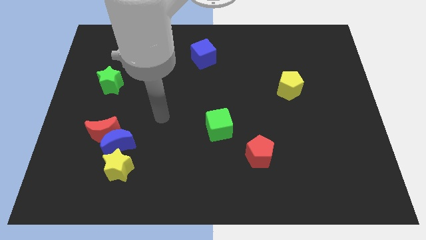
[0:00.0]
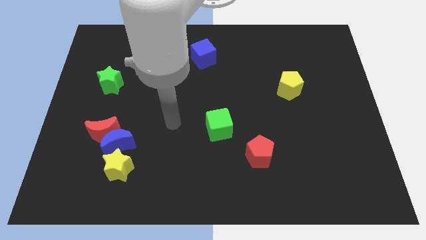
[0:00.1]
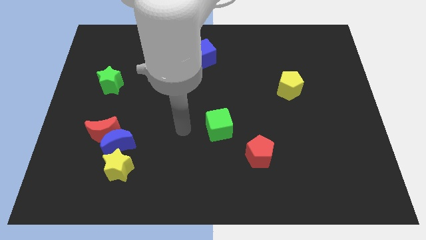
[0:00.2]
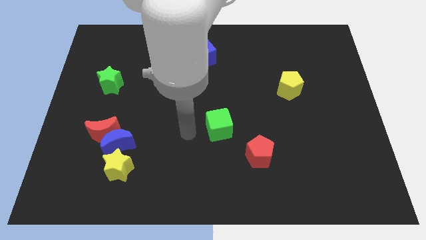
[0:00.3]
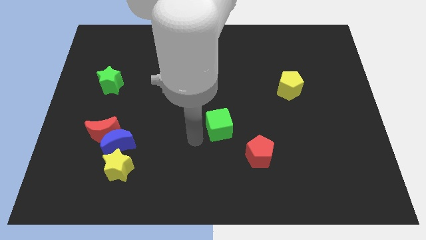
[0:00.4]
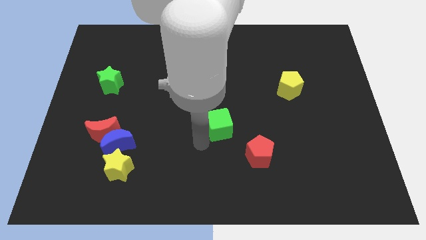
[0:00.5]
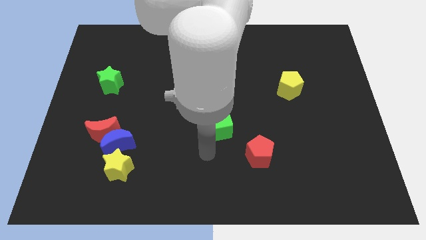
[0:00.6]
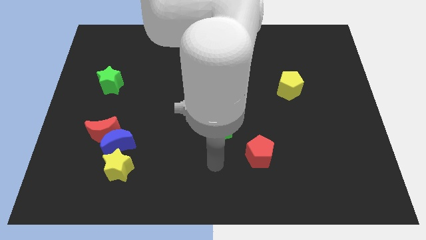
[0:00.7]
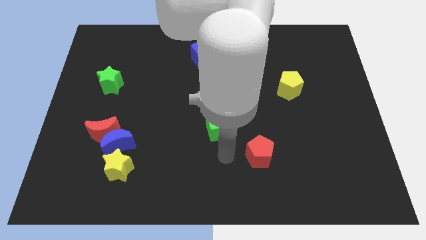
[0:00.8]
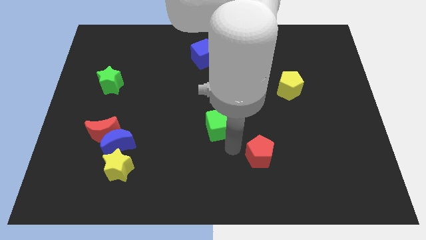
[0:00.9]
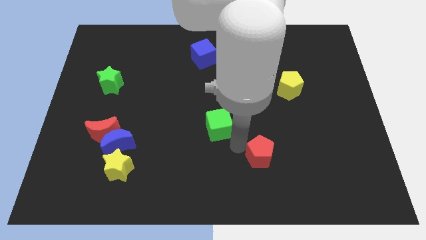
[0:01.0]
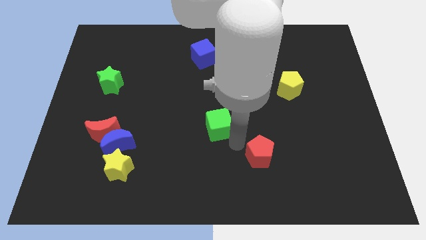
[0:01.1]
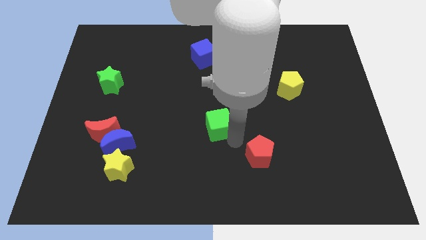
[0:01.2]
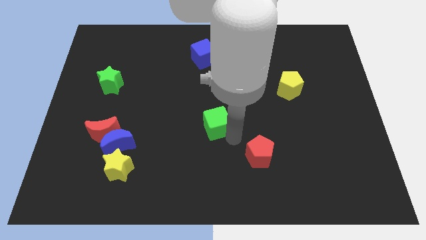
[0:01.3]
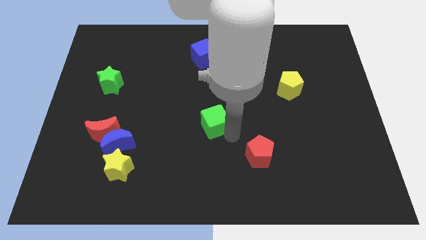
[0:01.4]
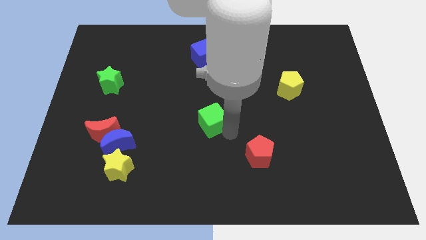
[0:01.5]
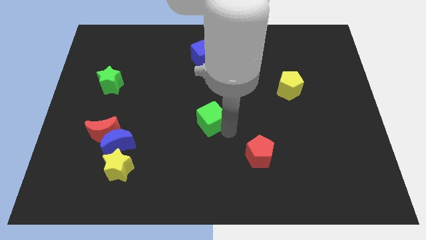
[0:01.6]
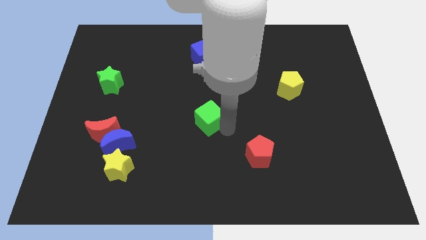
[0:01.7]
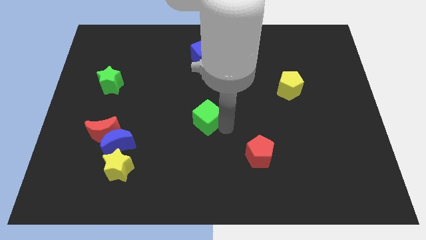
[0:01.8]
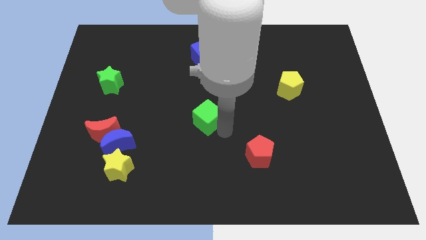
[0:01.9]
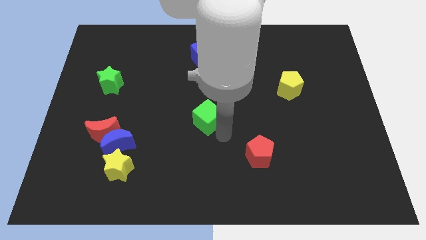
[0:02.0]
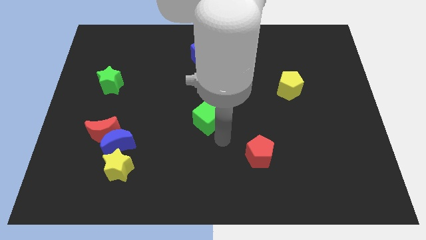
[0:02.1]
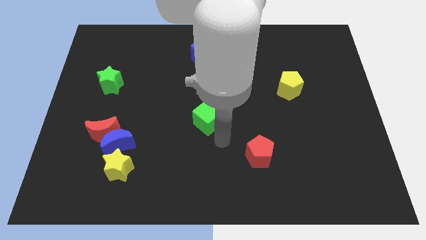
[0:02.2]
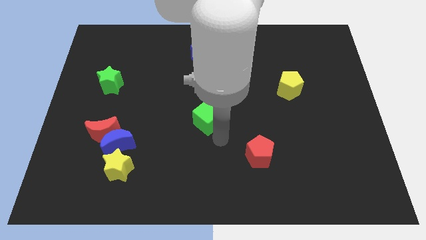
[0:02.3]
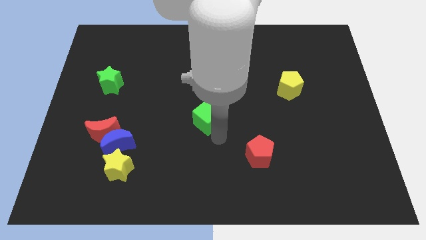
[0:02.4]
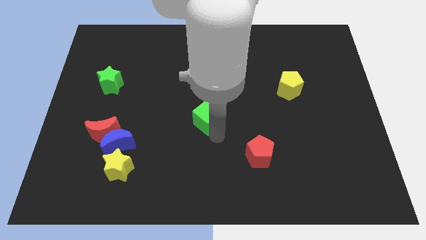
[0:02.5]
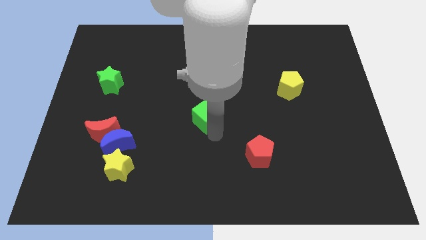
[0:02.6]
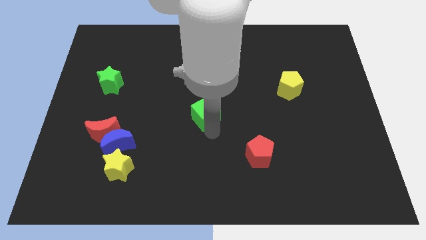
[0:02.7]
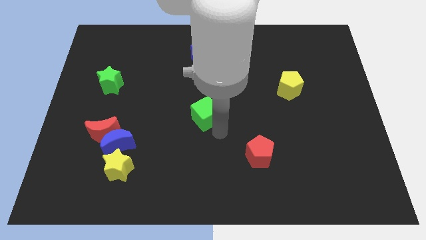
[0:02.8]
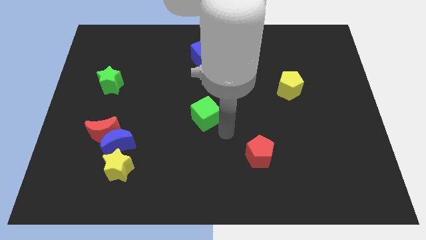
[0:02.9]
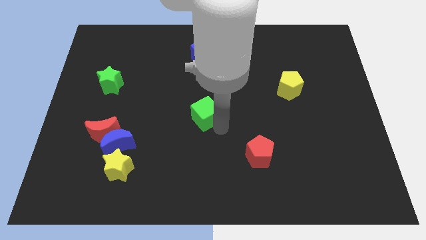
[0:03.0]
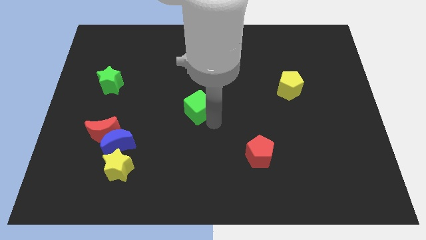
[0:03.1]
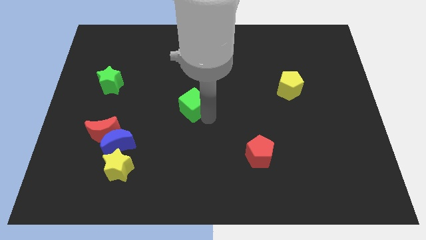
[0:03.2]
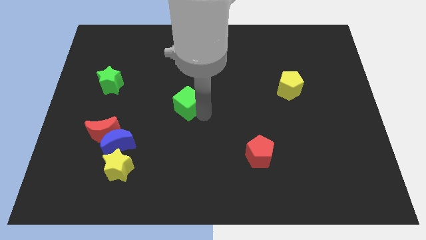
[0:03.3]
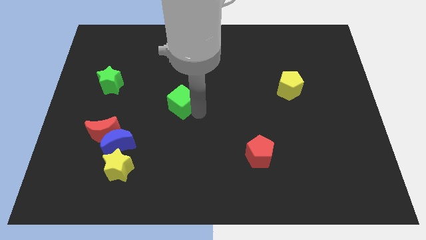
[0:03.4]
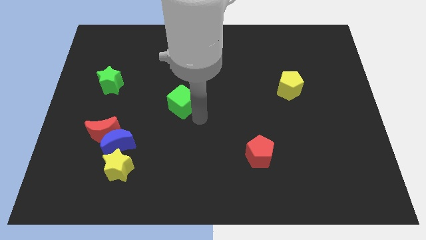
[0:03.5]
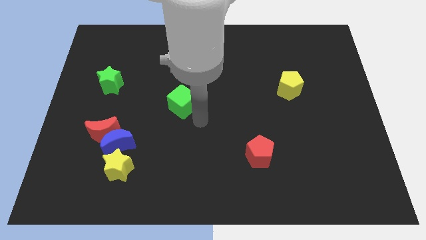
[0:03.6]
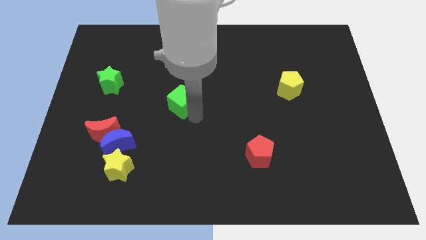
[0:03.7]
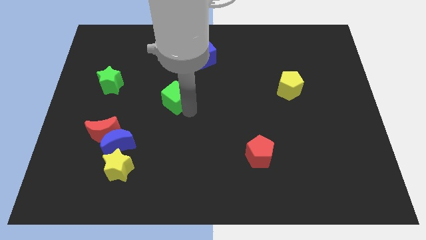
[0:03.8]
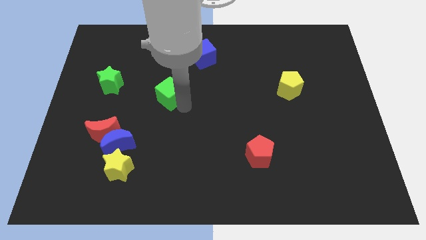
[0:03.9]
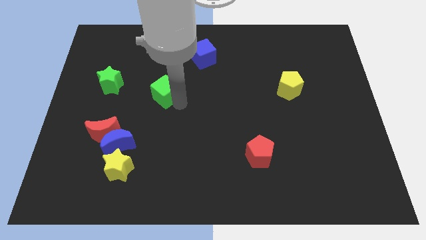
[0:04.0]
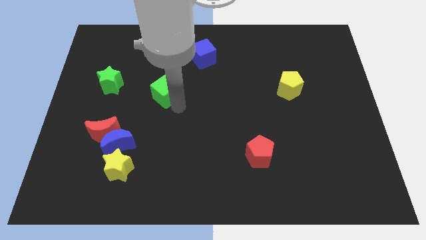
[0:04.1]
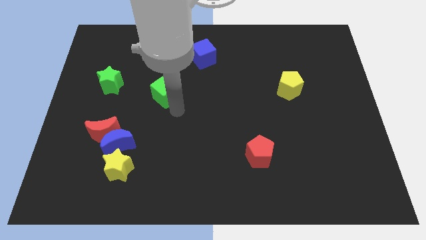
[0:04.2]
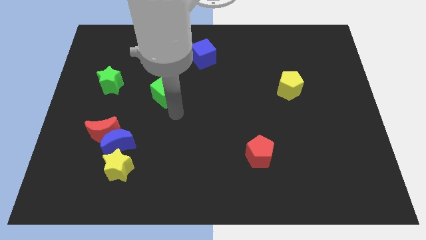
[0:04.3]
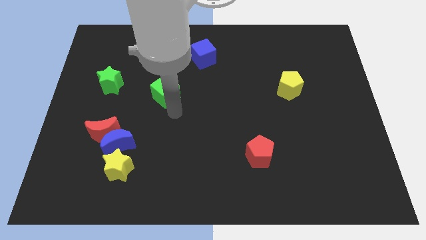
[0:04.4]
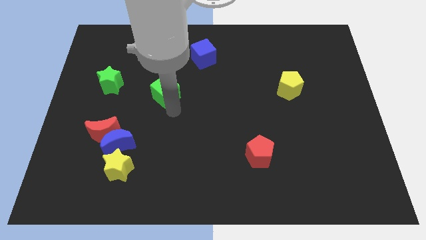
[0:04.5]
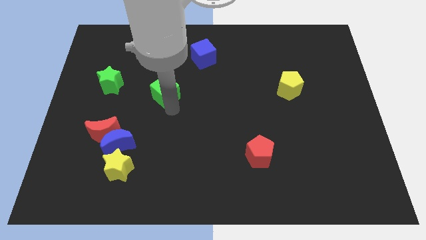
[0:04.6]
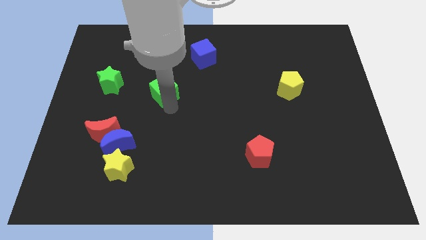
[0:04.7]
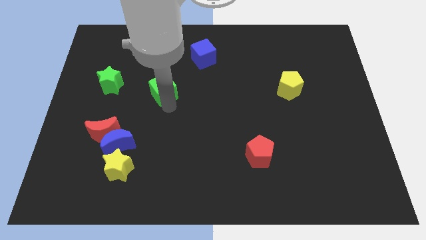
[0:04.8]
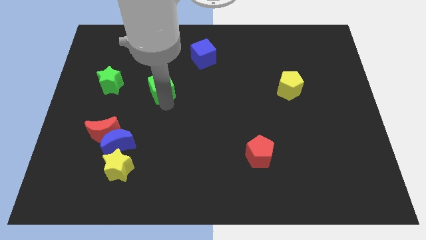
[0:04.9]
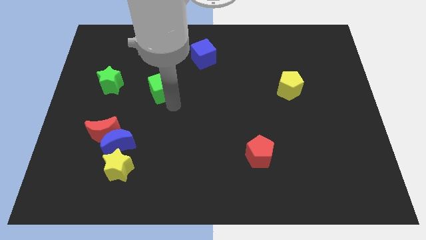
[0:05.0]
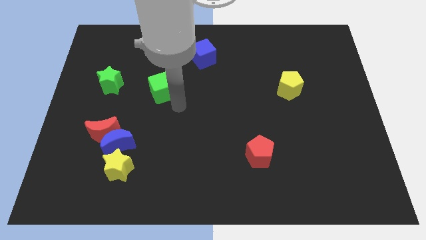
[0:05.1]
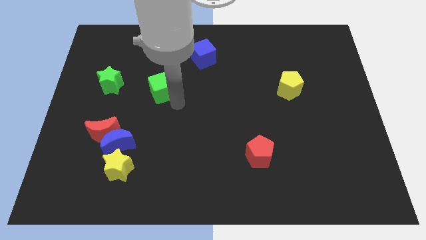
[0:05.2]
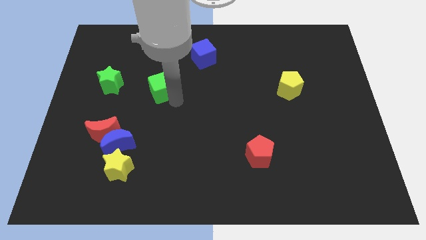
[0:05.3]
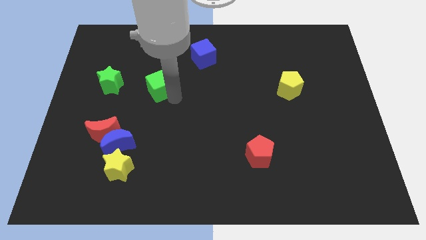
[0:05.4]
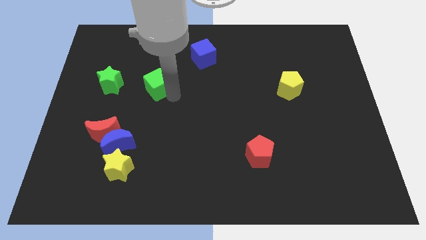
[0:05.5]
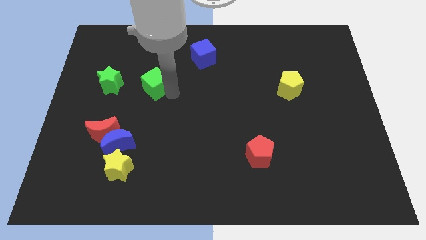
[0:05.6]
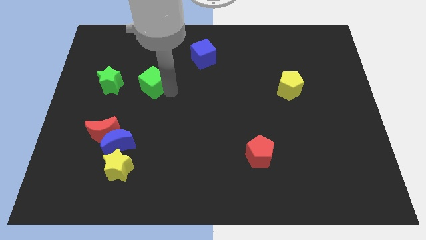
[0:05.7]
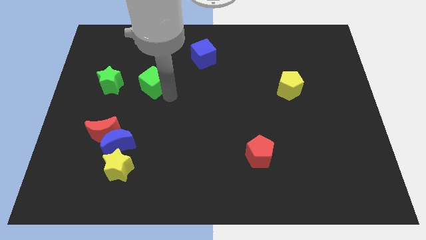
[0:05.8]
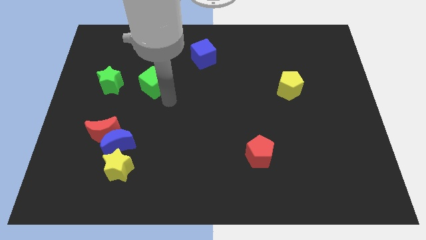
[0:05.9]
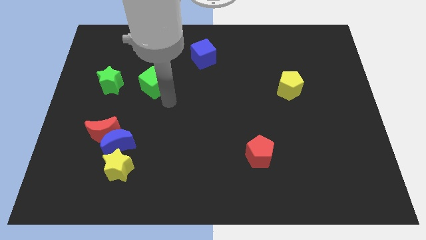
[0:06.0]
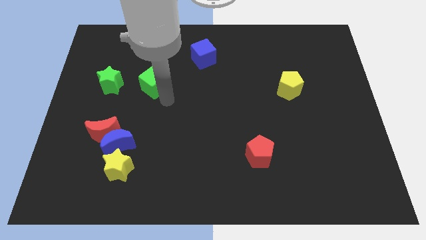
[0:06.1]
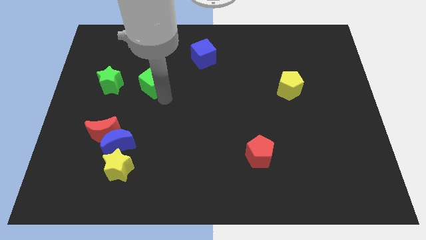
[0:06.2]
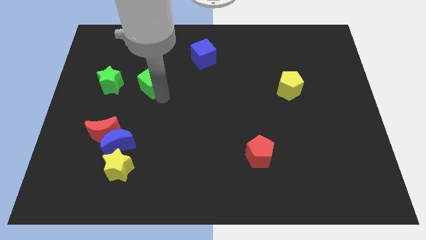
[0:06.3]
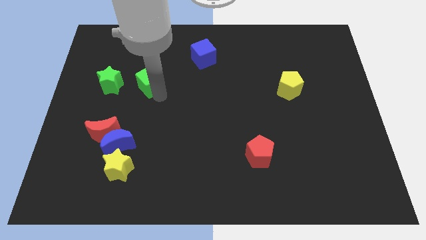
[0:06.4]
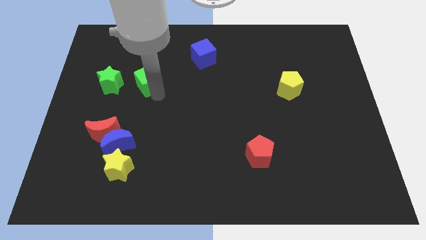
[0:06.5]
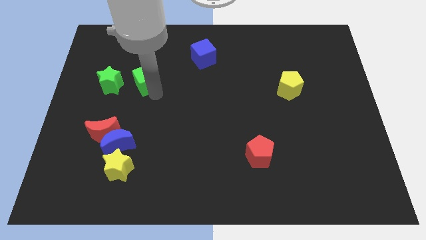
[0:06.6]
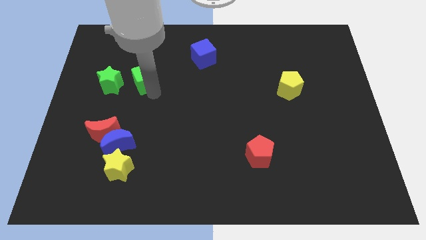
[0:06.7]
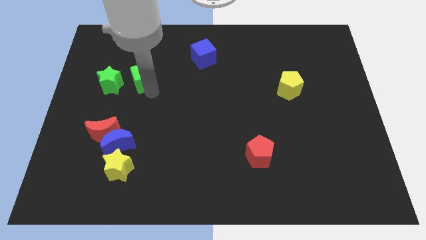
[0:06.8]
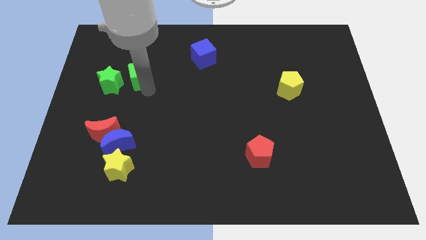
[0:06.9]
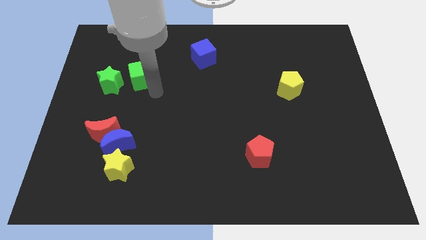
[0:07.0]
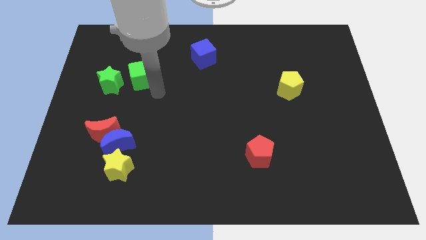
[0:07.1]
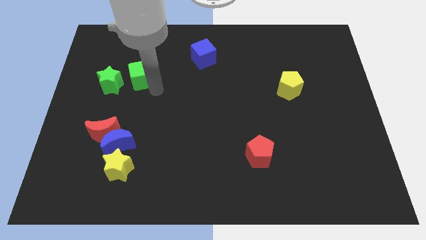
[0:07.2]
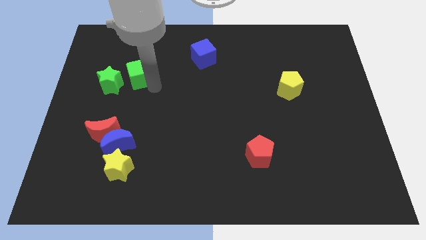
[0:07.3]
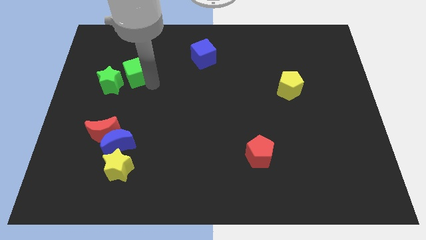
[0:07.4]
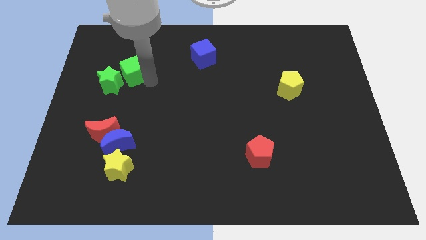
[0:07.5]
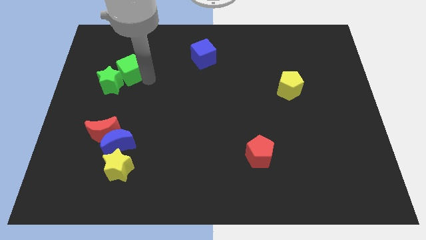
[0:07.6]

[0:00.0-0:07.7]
push the green cube to the top of the green star
